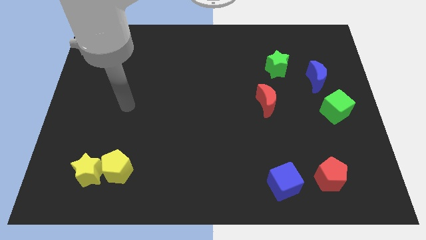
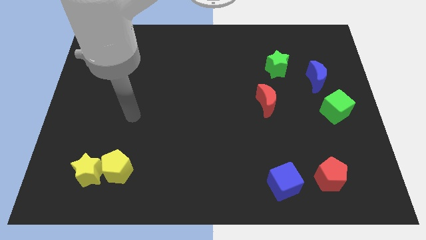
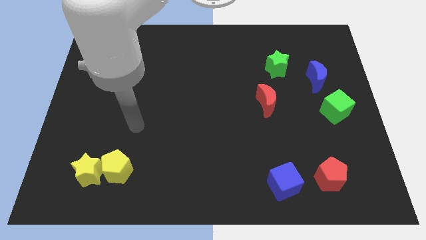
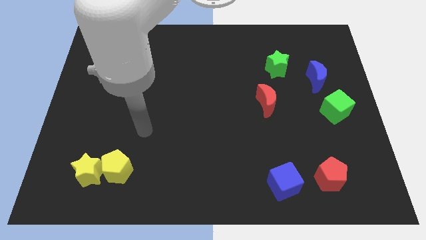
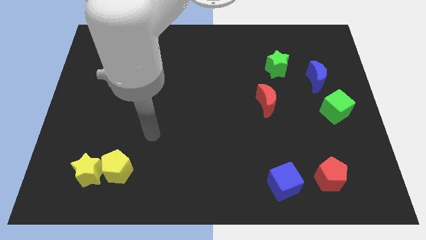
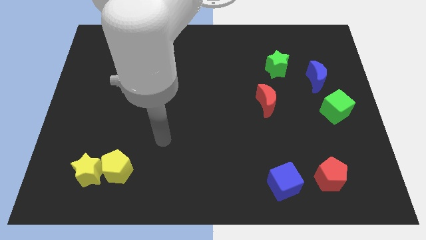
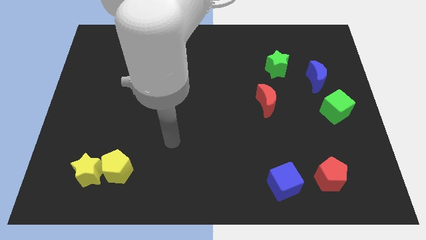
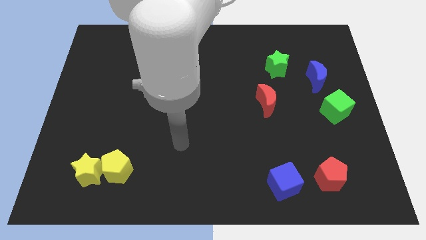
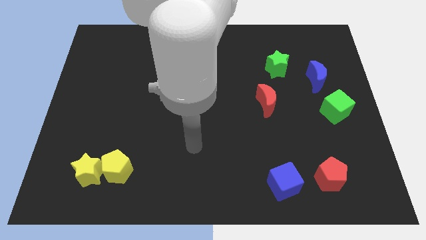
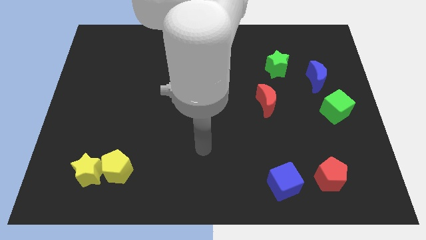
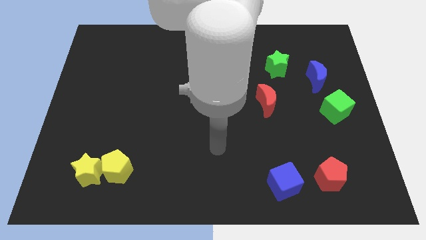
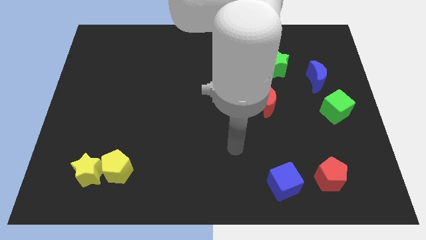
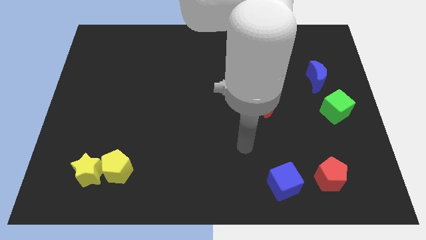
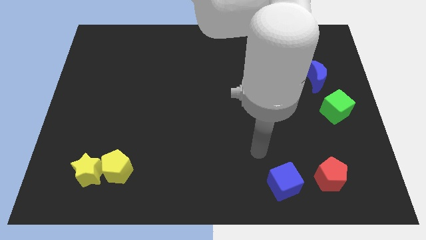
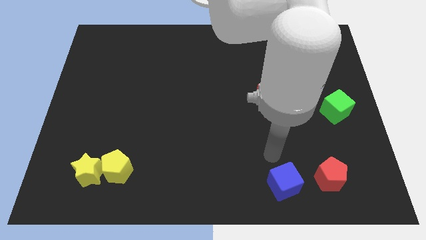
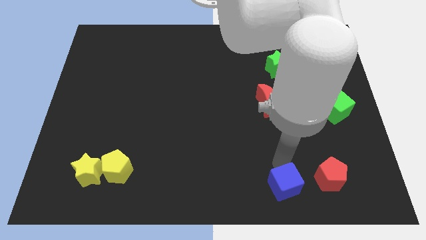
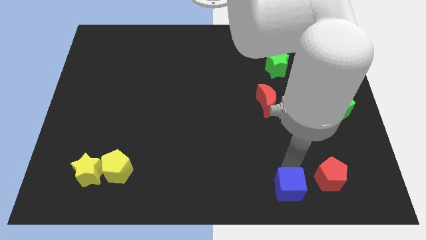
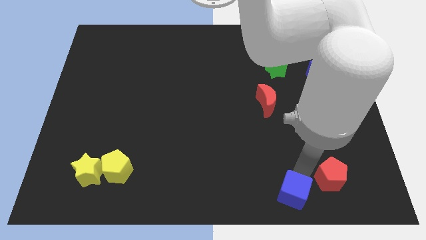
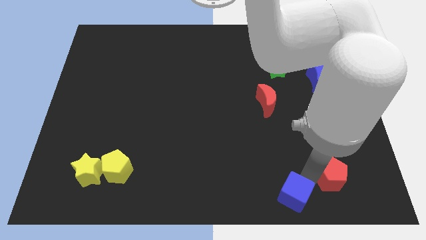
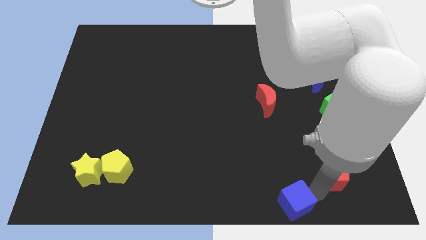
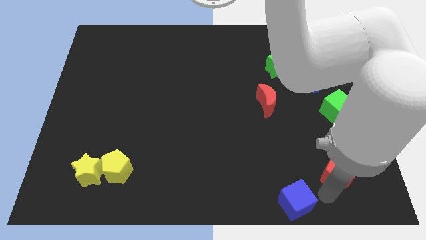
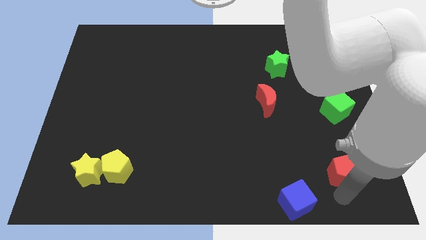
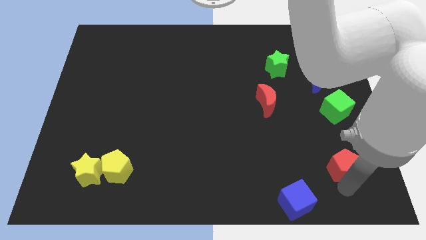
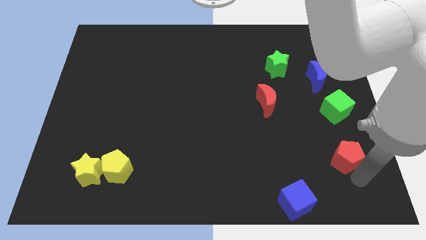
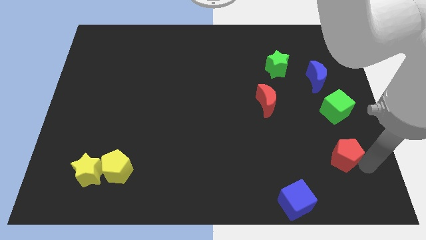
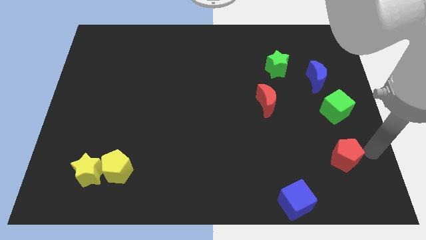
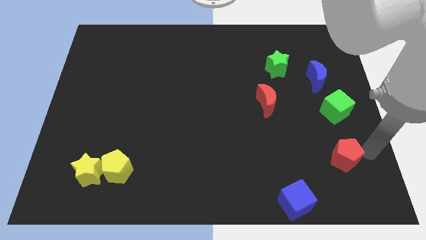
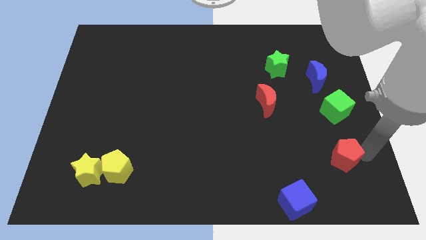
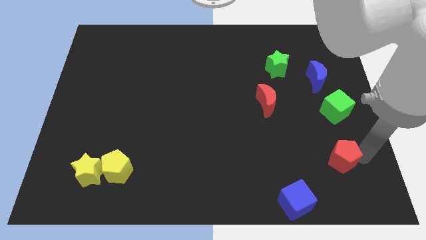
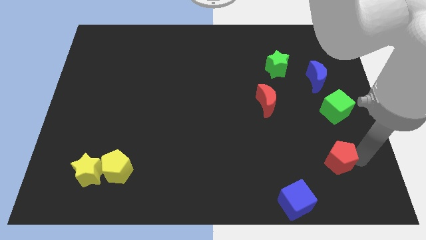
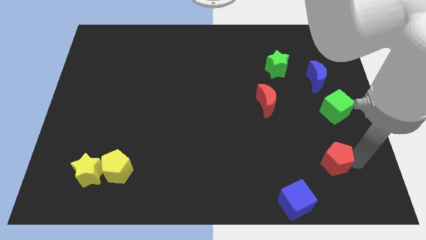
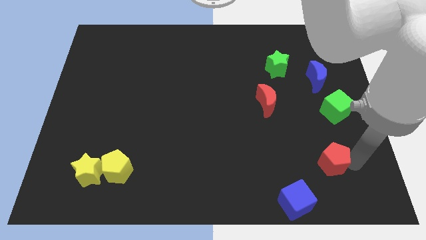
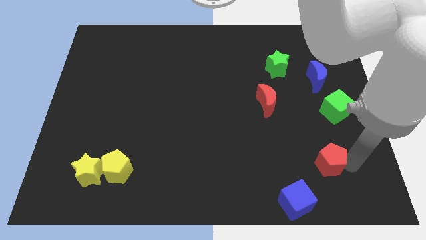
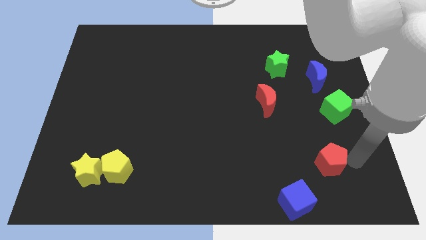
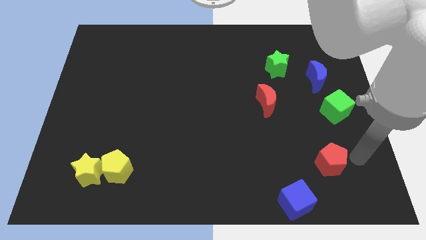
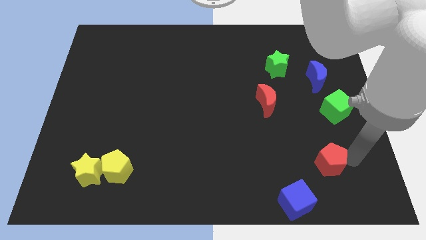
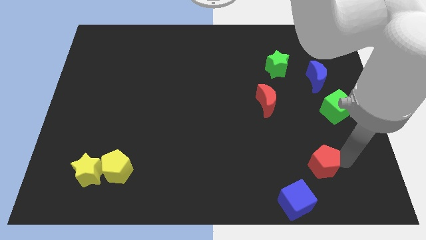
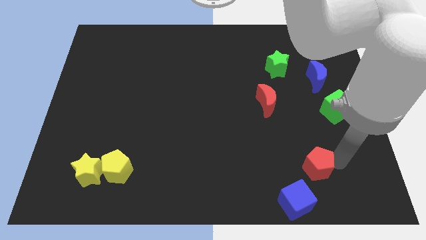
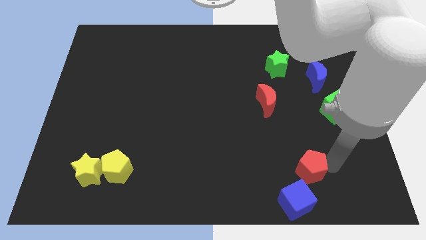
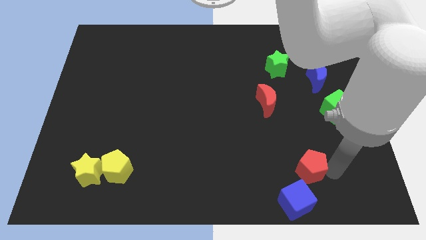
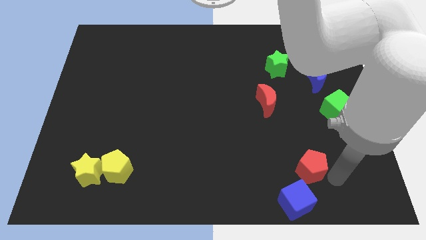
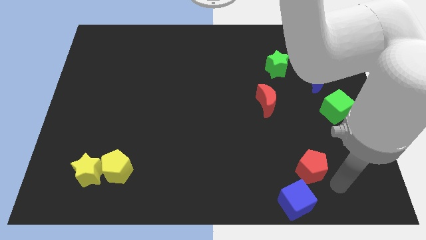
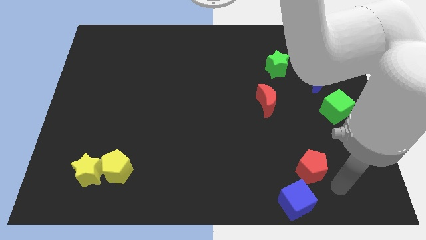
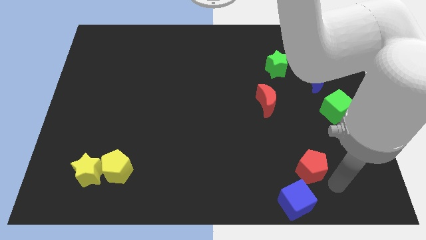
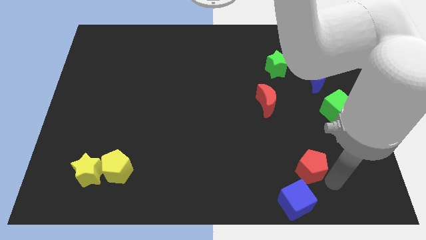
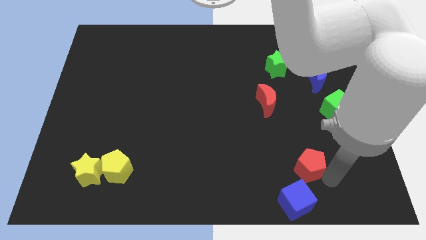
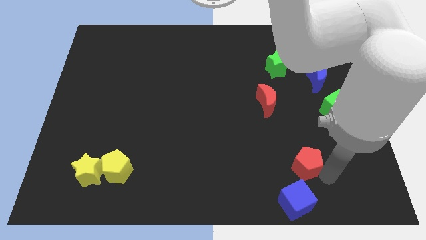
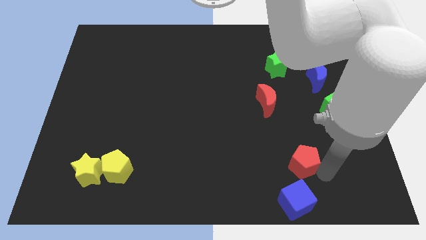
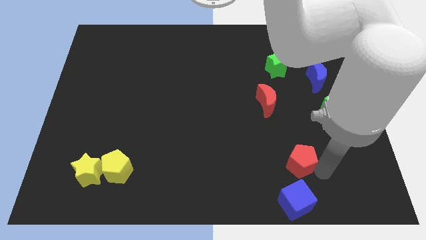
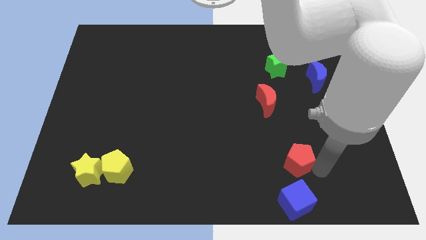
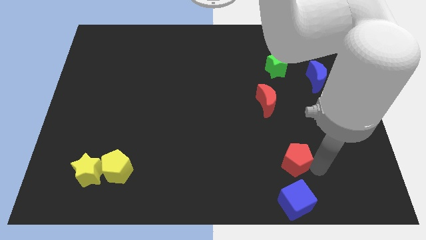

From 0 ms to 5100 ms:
slightly move the red pentagon up and then left

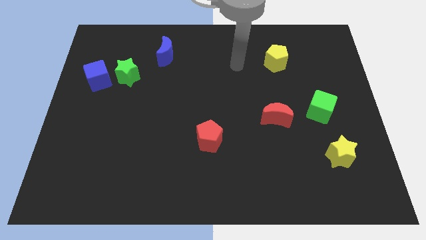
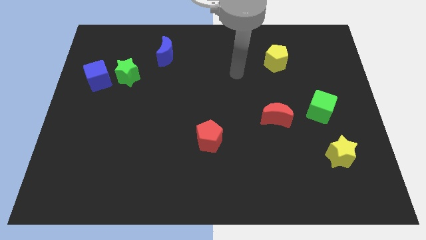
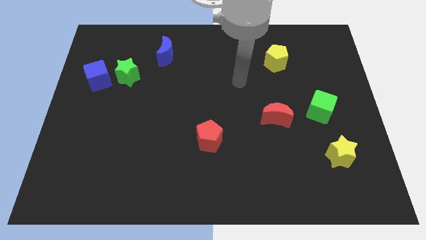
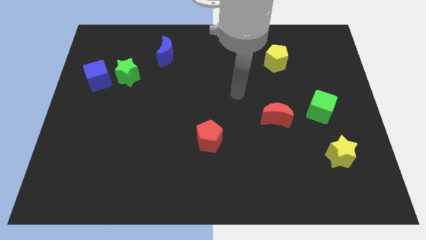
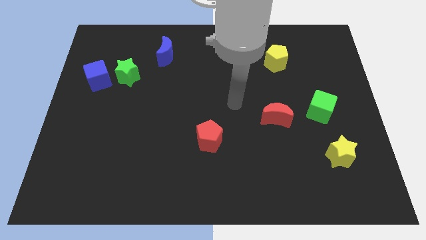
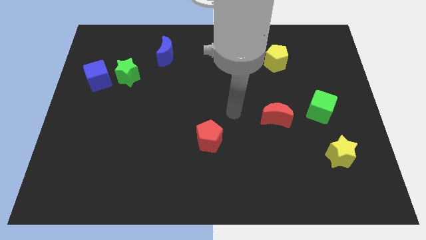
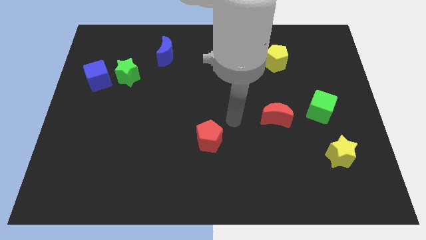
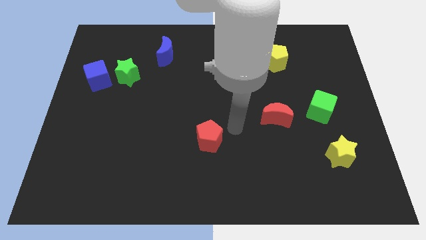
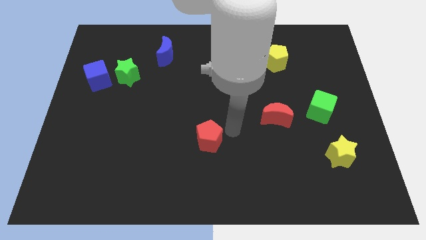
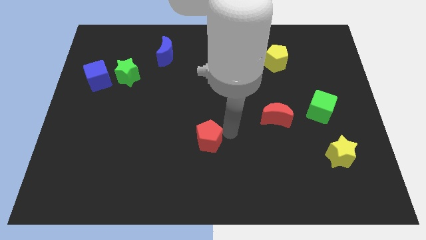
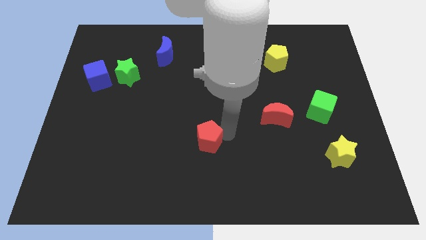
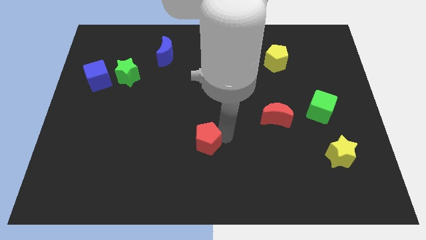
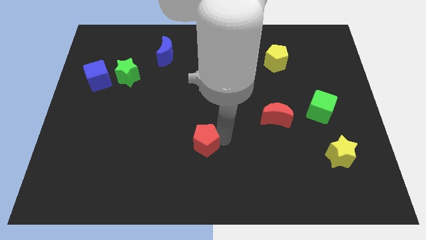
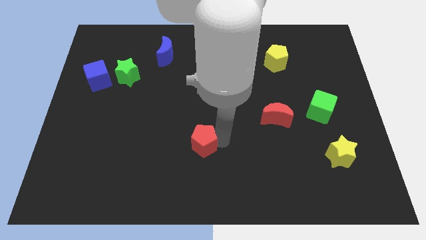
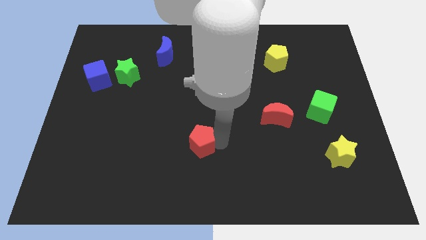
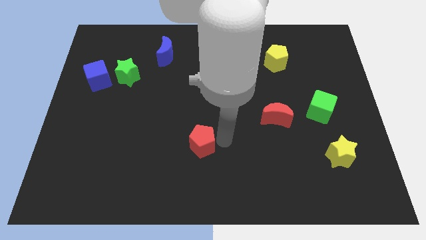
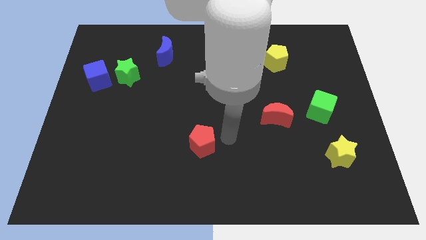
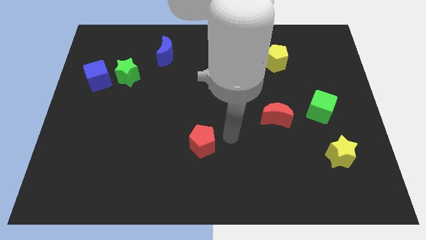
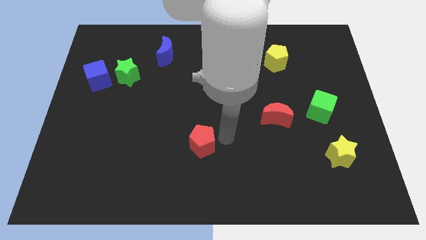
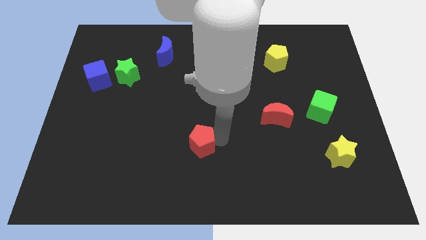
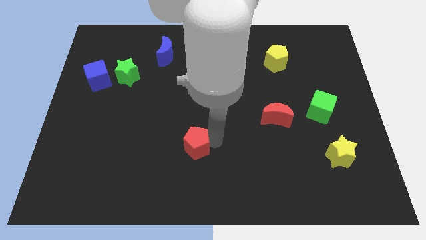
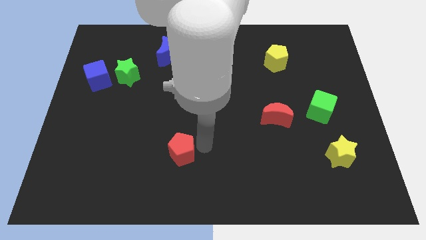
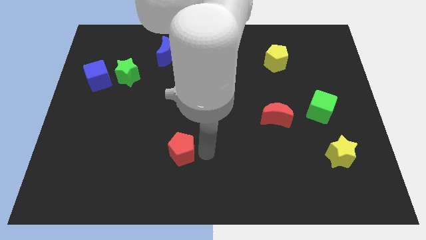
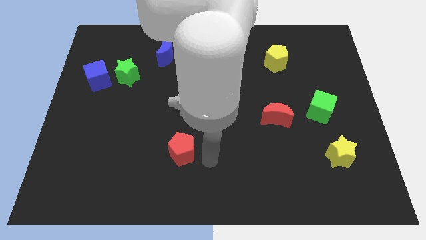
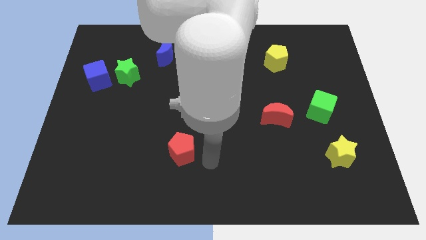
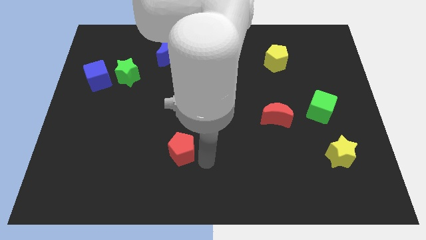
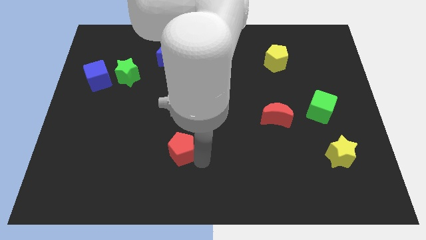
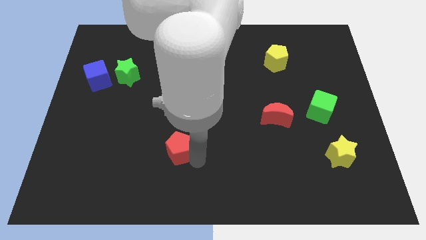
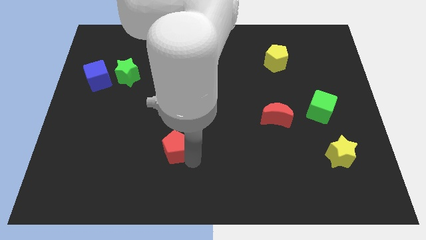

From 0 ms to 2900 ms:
slightly push the red pentagon left
